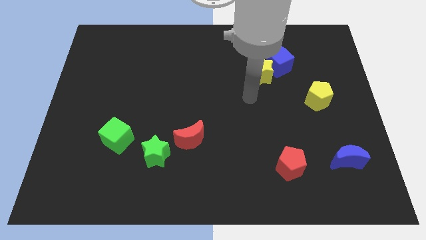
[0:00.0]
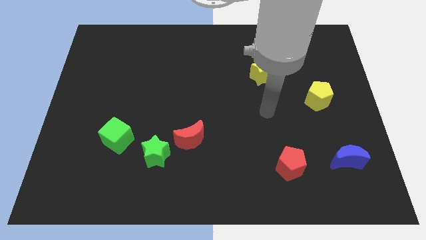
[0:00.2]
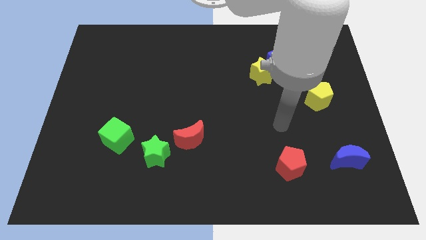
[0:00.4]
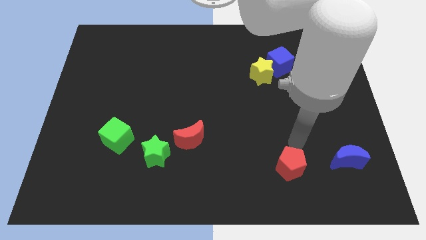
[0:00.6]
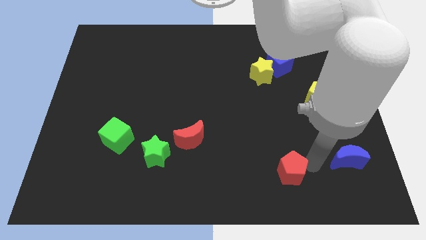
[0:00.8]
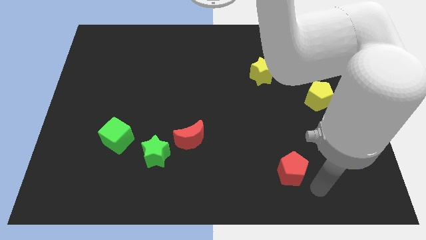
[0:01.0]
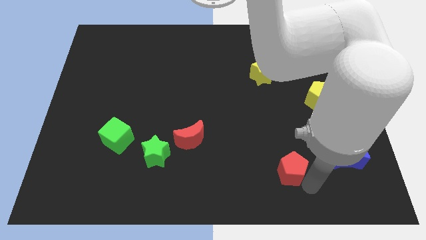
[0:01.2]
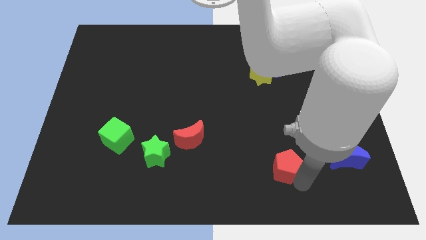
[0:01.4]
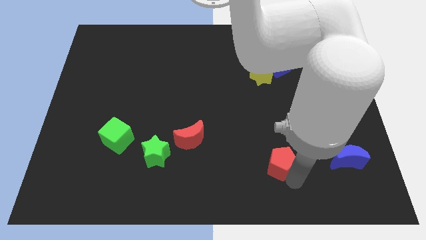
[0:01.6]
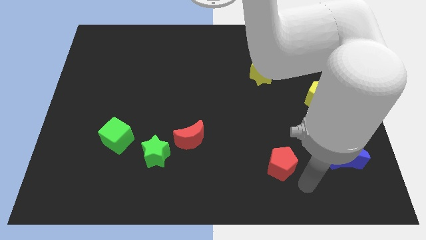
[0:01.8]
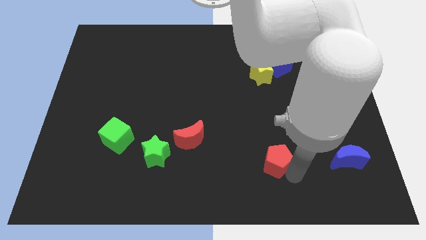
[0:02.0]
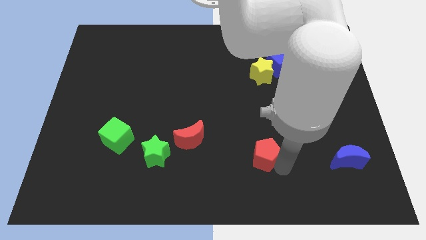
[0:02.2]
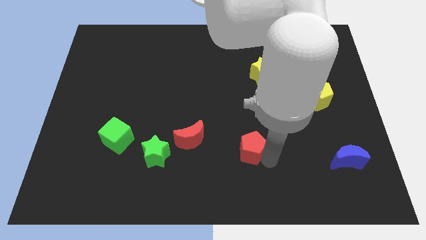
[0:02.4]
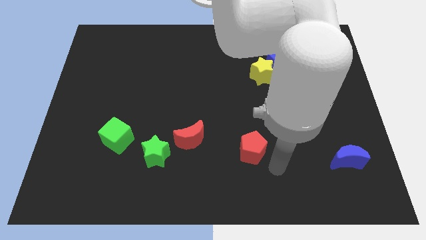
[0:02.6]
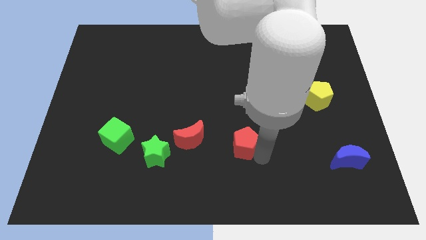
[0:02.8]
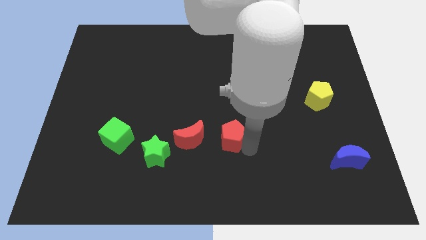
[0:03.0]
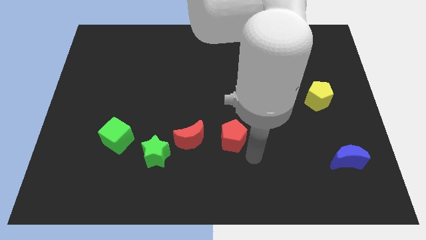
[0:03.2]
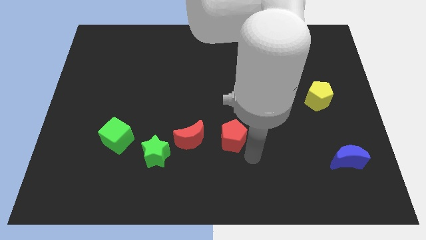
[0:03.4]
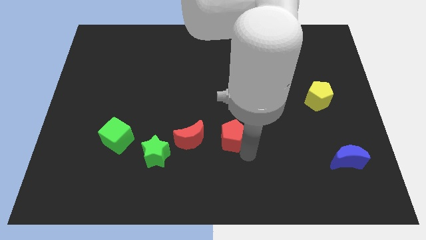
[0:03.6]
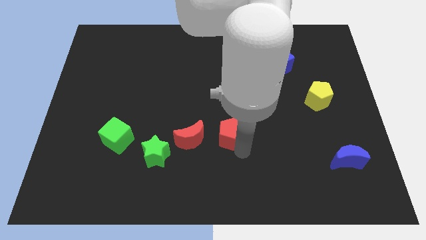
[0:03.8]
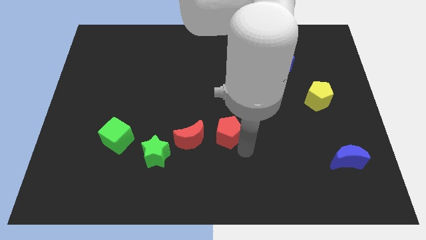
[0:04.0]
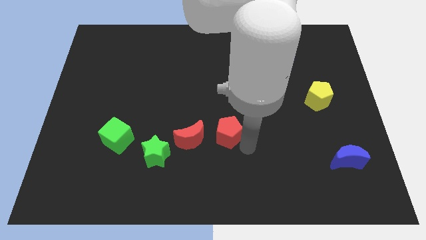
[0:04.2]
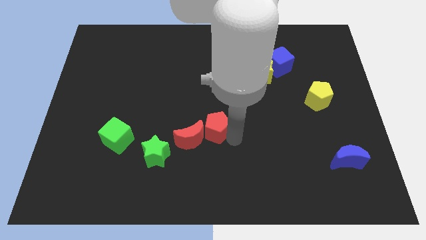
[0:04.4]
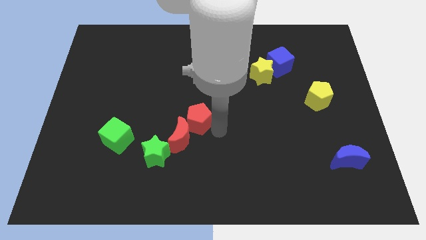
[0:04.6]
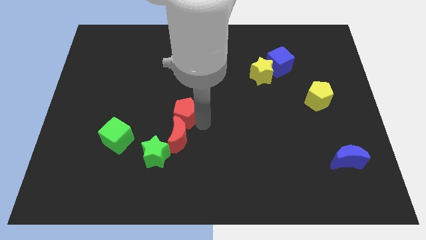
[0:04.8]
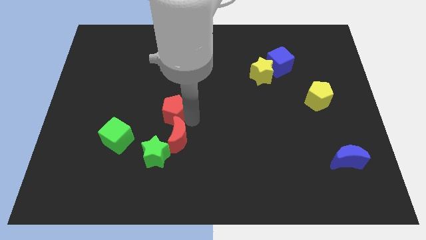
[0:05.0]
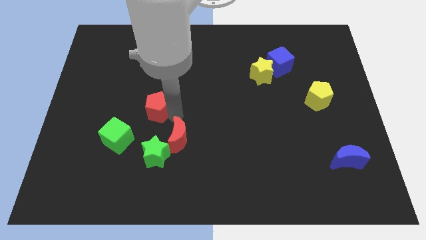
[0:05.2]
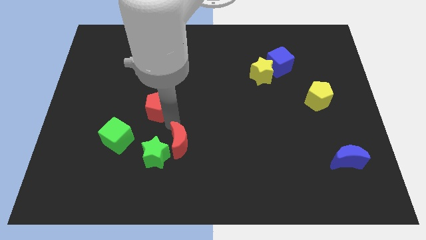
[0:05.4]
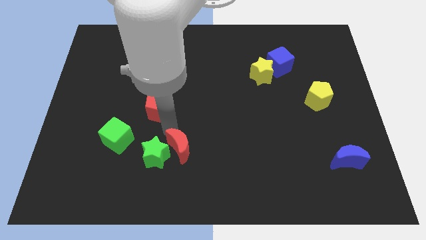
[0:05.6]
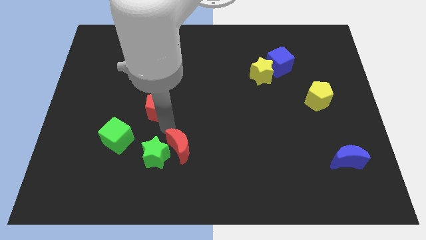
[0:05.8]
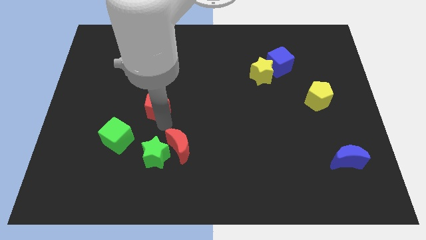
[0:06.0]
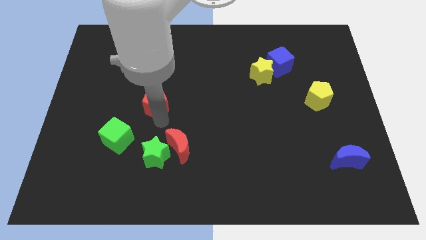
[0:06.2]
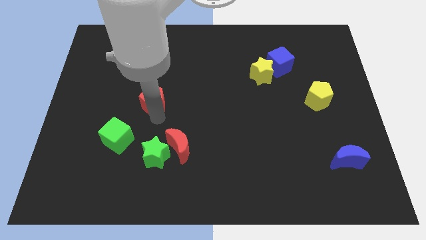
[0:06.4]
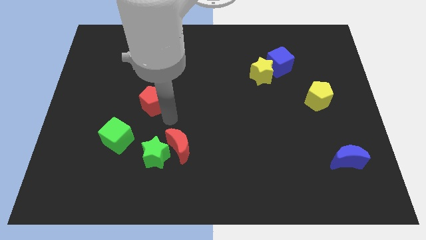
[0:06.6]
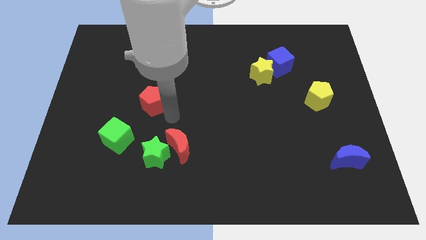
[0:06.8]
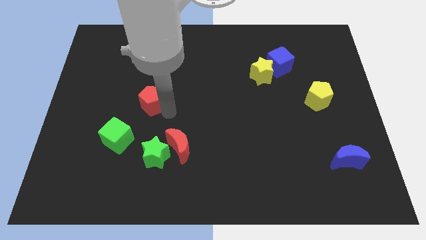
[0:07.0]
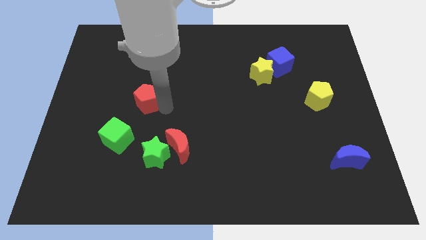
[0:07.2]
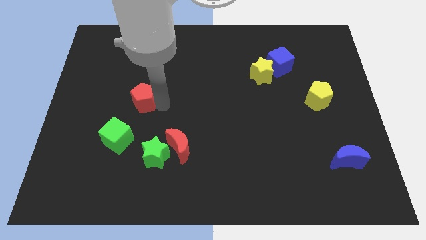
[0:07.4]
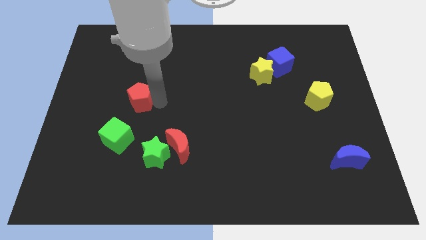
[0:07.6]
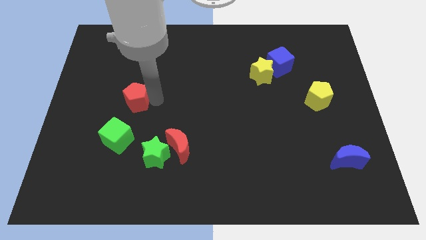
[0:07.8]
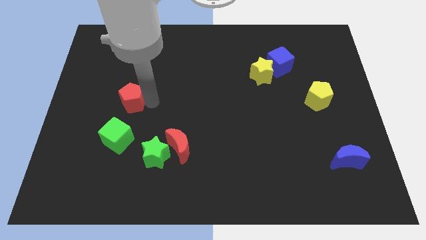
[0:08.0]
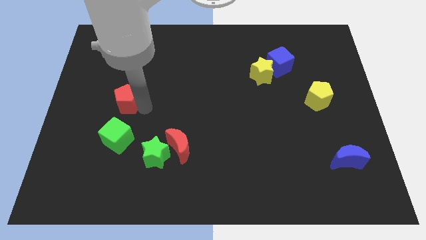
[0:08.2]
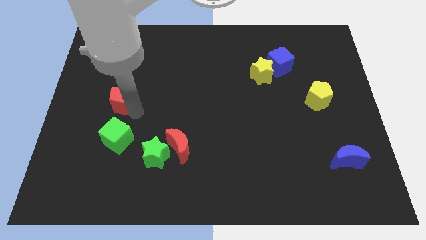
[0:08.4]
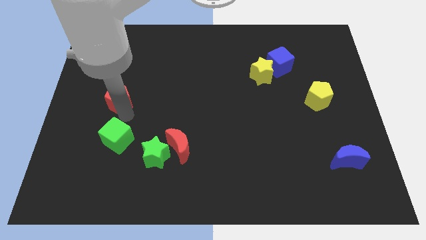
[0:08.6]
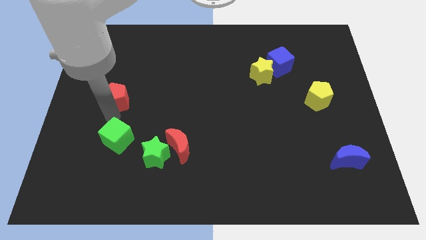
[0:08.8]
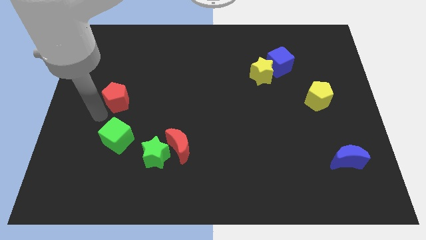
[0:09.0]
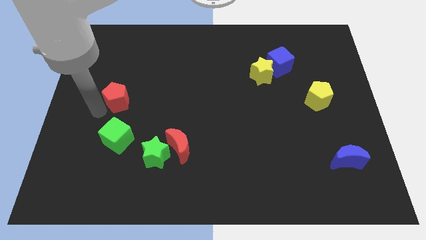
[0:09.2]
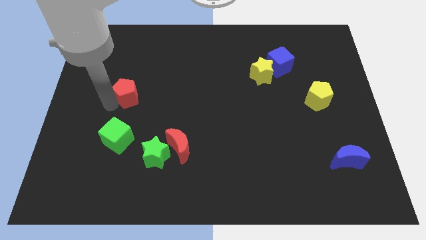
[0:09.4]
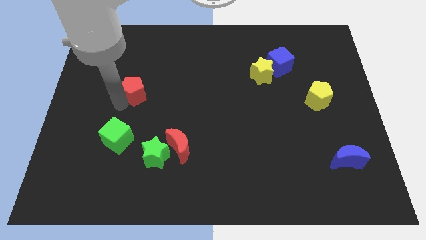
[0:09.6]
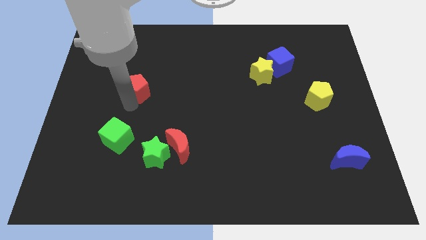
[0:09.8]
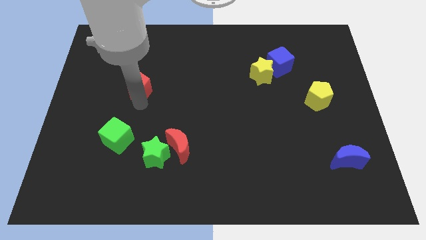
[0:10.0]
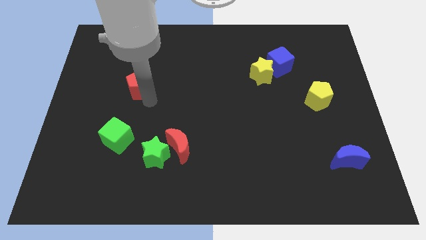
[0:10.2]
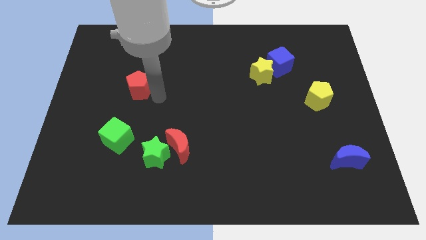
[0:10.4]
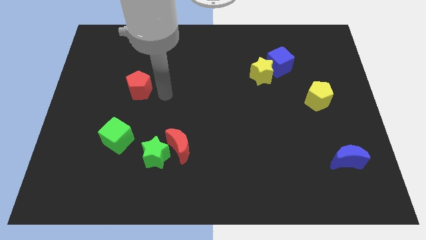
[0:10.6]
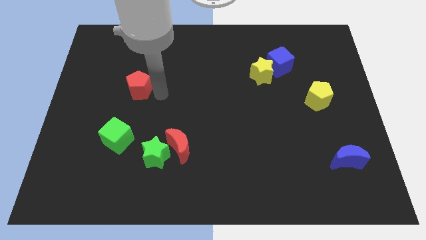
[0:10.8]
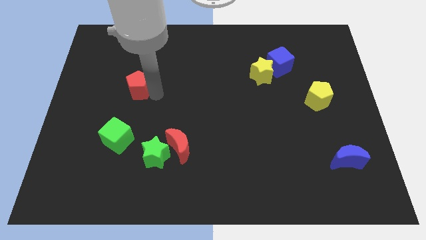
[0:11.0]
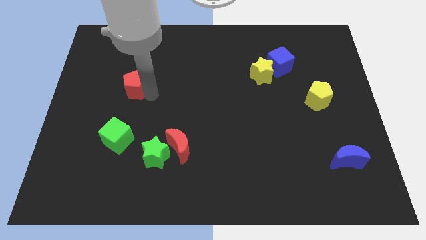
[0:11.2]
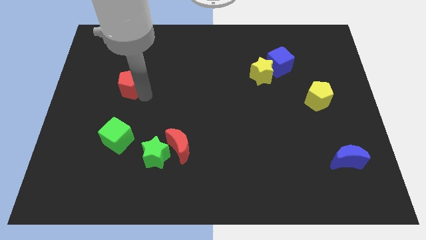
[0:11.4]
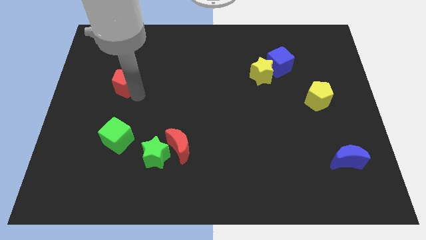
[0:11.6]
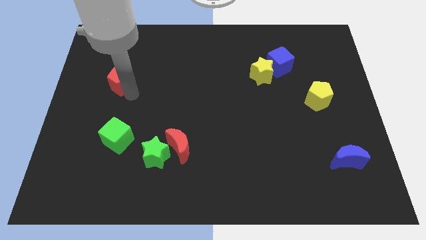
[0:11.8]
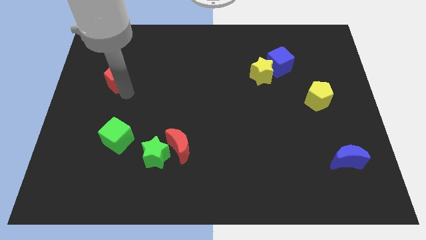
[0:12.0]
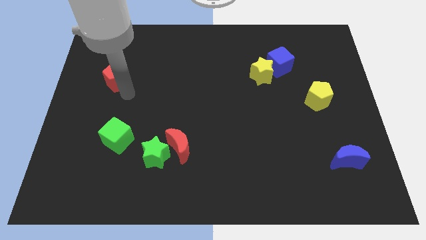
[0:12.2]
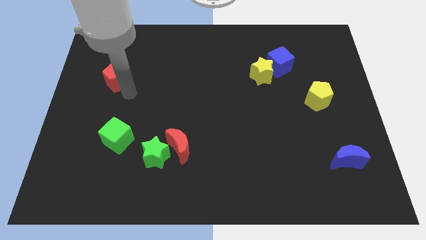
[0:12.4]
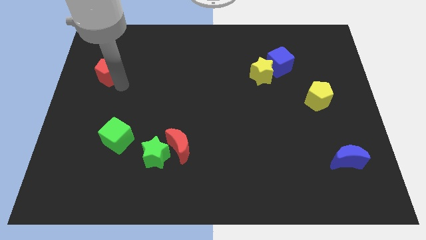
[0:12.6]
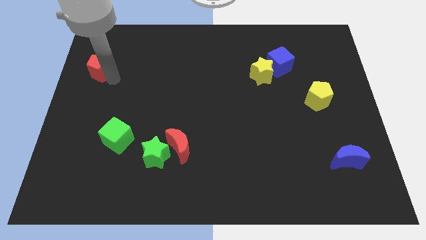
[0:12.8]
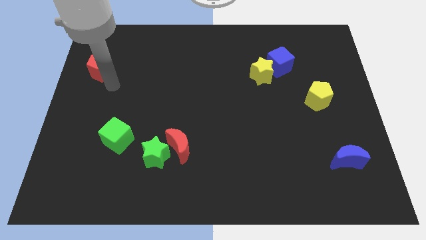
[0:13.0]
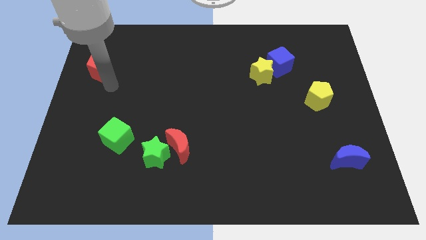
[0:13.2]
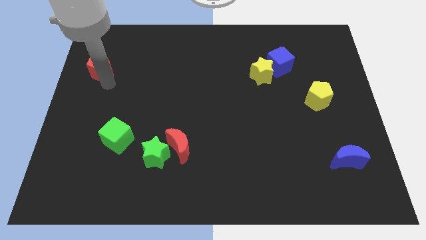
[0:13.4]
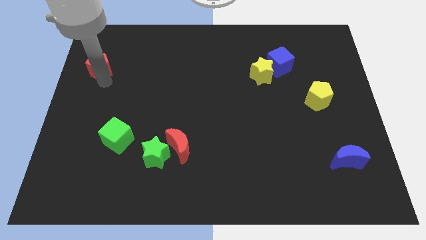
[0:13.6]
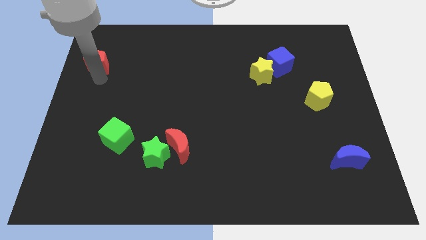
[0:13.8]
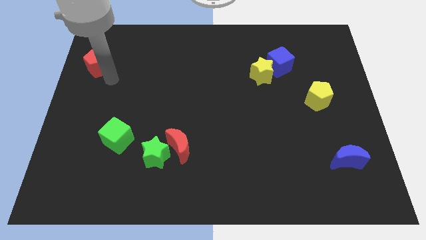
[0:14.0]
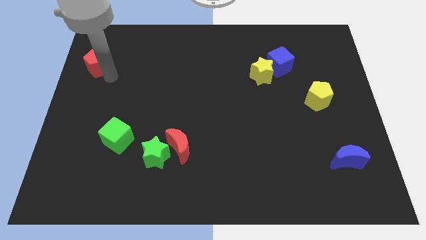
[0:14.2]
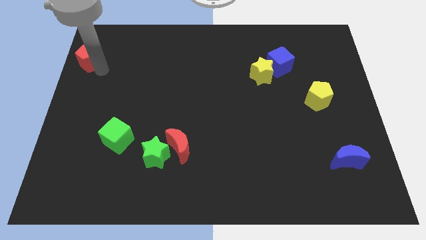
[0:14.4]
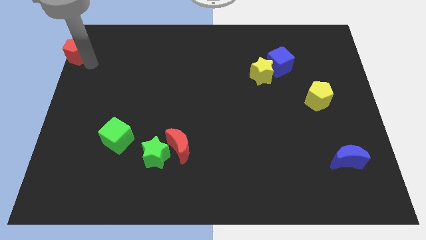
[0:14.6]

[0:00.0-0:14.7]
slide the red pentagon to the top left
